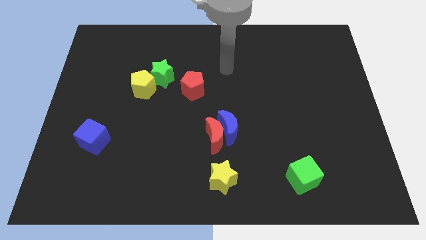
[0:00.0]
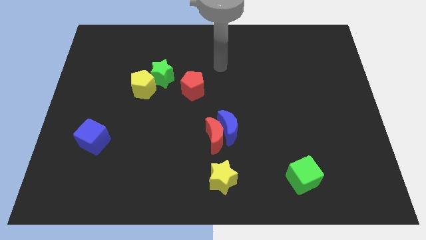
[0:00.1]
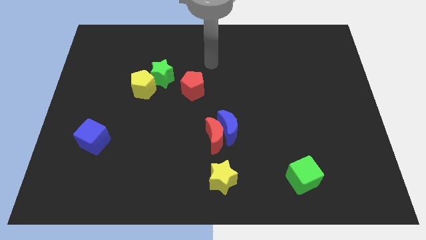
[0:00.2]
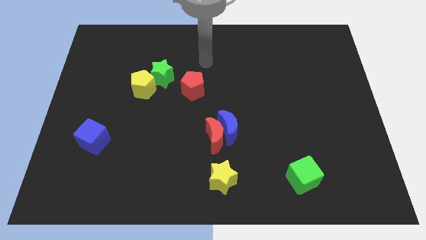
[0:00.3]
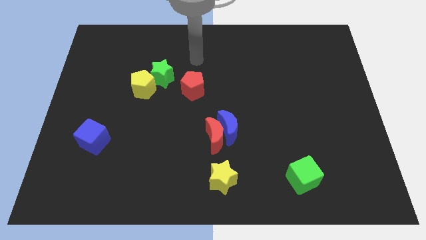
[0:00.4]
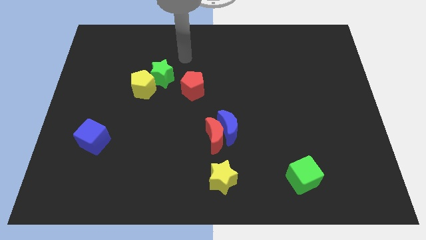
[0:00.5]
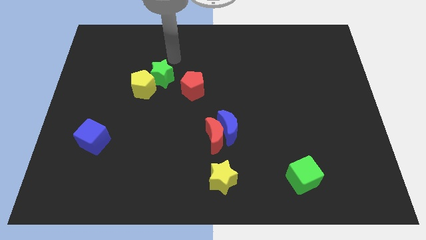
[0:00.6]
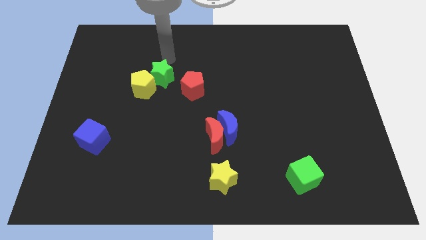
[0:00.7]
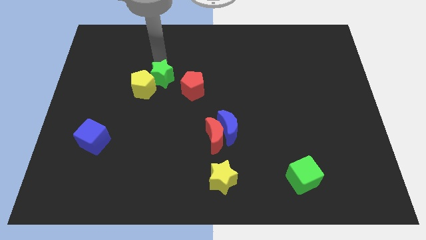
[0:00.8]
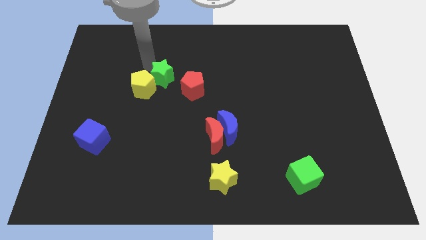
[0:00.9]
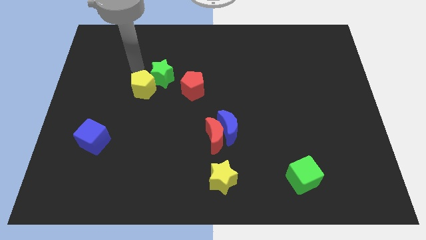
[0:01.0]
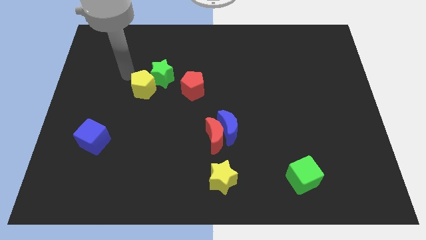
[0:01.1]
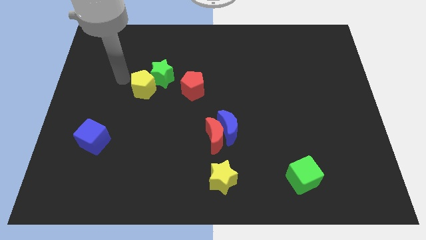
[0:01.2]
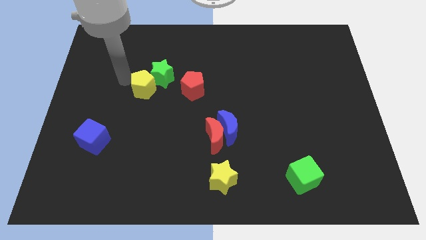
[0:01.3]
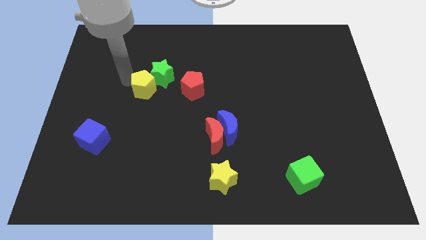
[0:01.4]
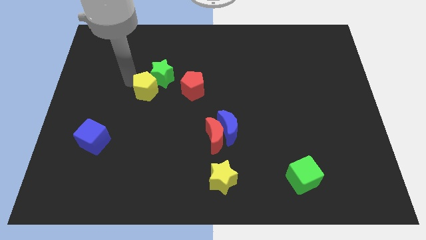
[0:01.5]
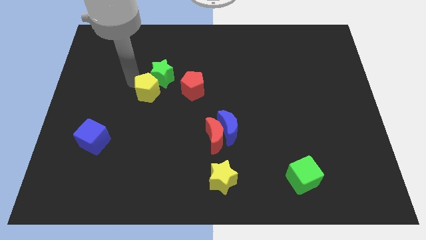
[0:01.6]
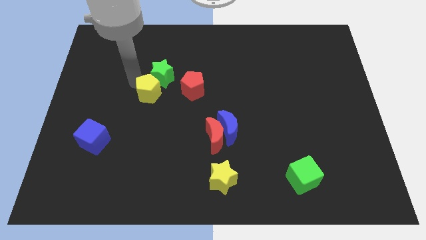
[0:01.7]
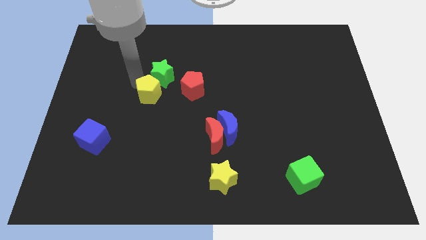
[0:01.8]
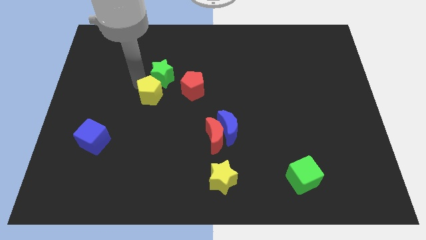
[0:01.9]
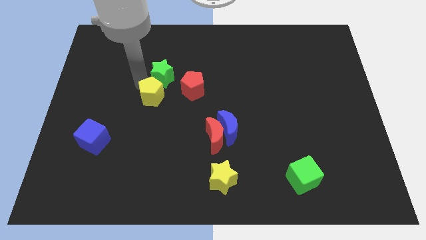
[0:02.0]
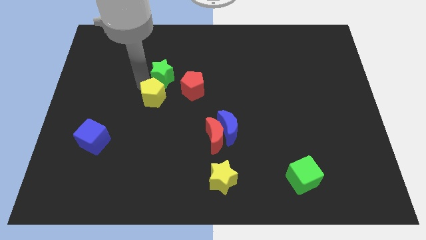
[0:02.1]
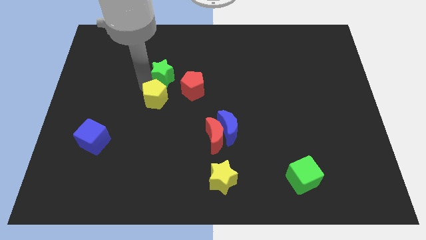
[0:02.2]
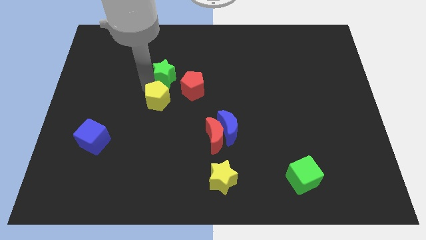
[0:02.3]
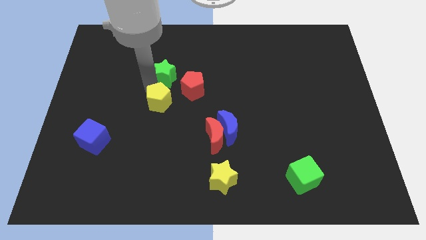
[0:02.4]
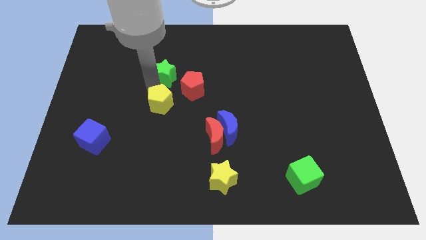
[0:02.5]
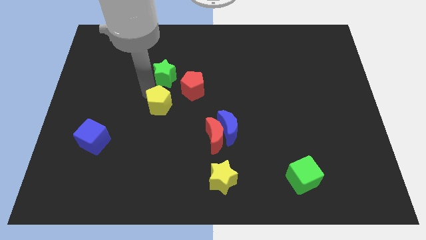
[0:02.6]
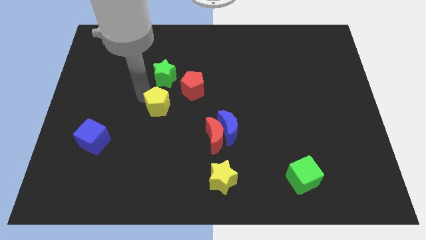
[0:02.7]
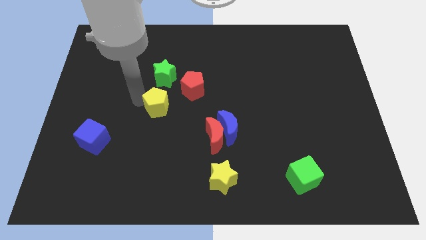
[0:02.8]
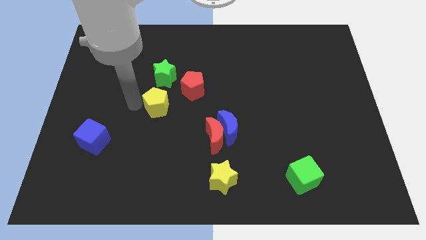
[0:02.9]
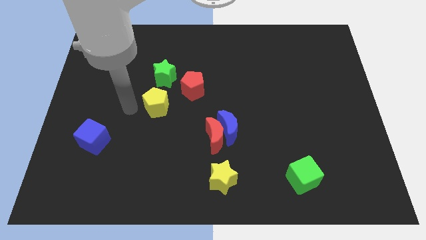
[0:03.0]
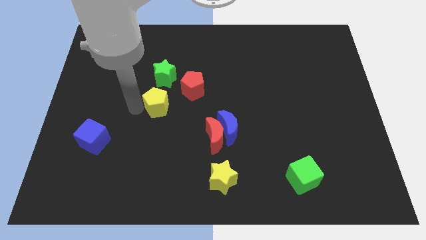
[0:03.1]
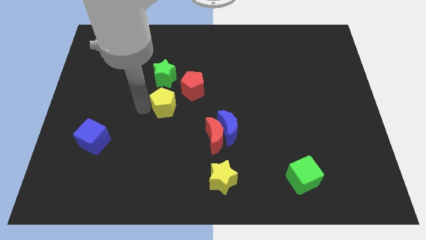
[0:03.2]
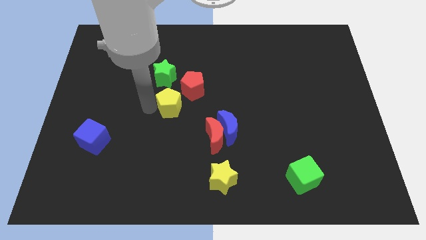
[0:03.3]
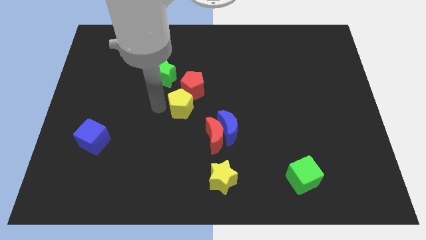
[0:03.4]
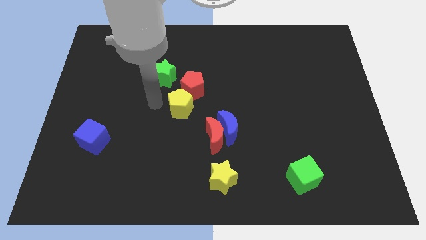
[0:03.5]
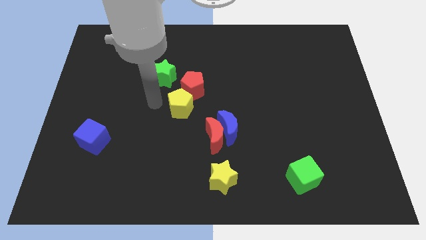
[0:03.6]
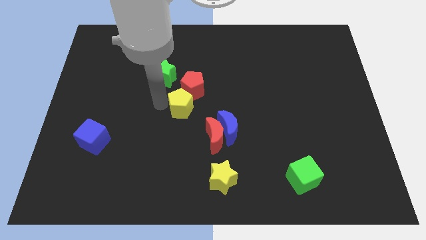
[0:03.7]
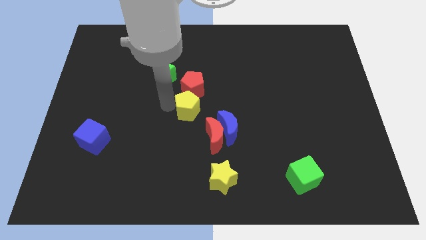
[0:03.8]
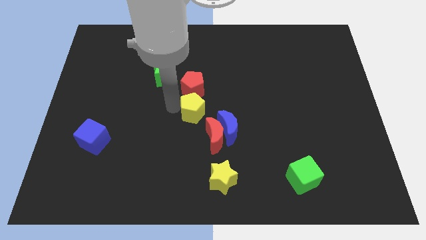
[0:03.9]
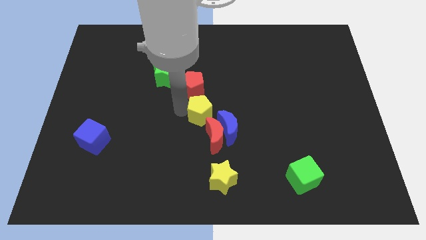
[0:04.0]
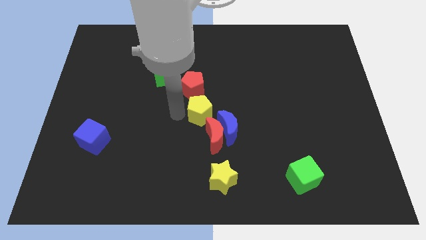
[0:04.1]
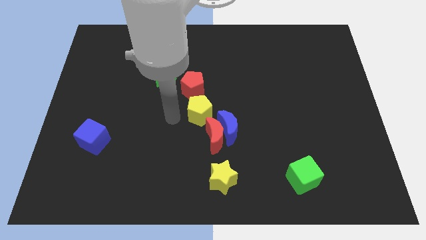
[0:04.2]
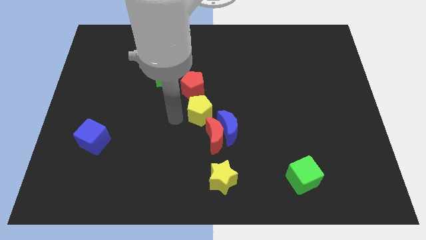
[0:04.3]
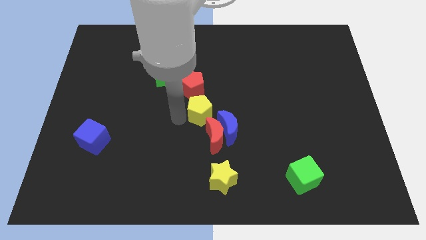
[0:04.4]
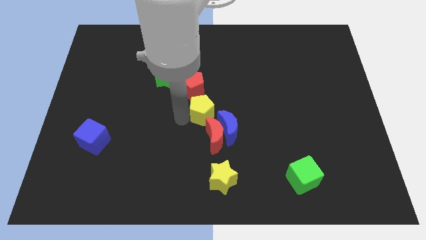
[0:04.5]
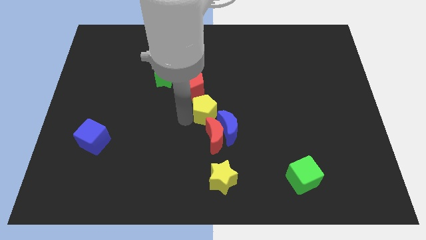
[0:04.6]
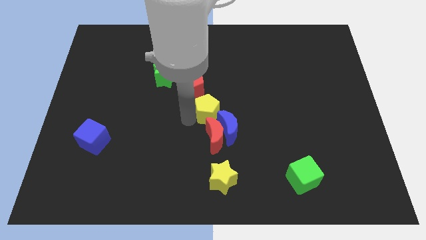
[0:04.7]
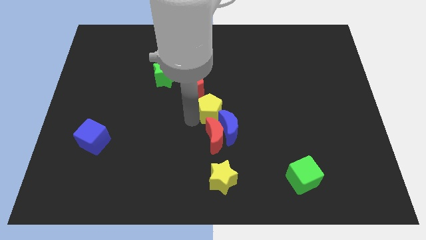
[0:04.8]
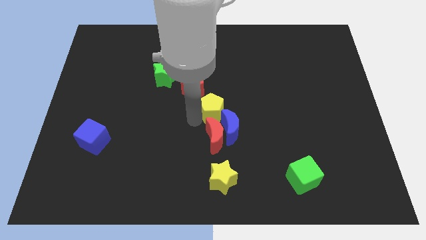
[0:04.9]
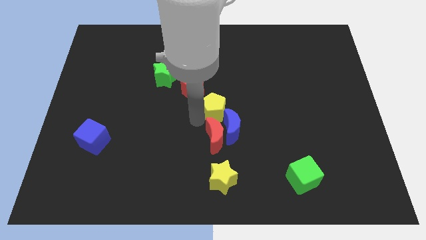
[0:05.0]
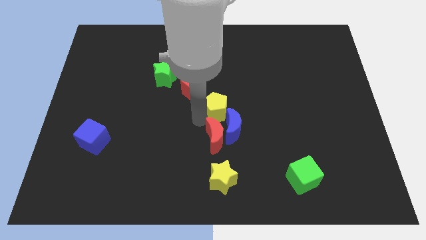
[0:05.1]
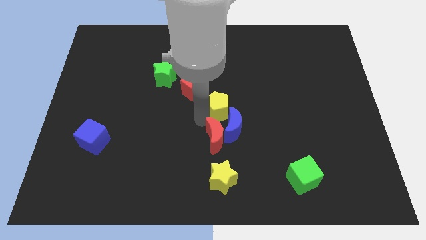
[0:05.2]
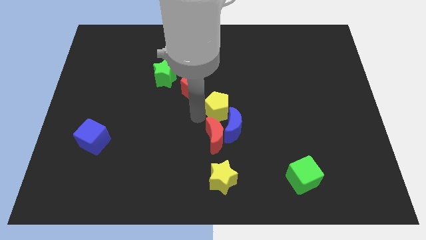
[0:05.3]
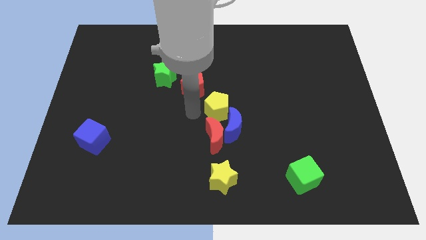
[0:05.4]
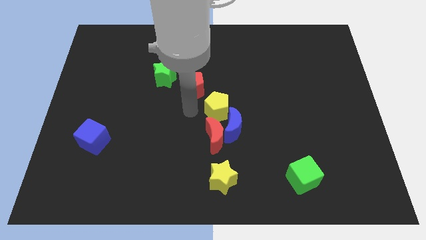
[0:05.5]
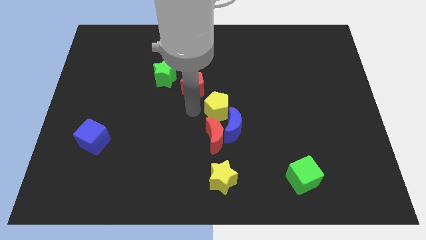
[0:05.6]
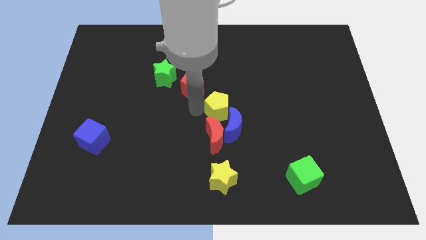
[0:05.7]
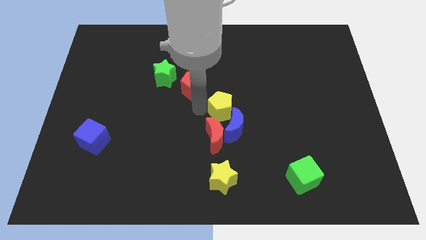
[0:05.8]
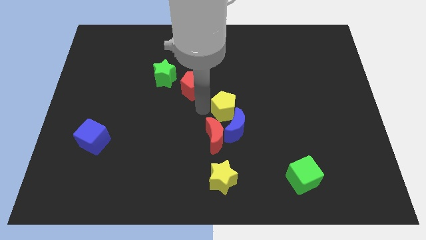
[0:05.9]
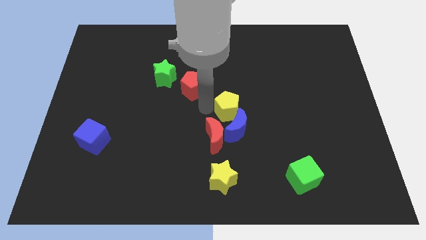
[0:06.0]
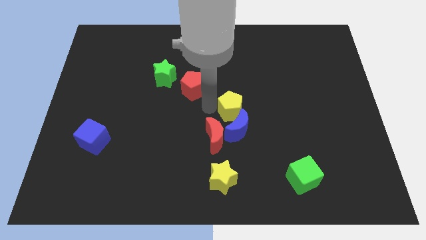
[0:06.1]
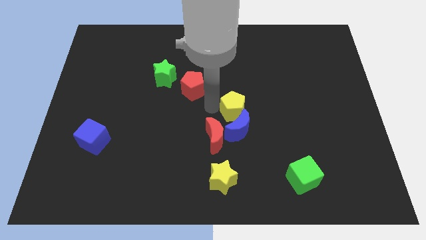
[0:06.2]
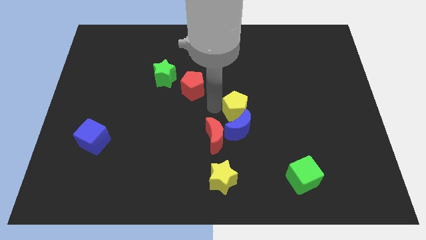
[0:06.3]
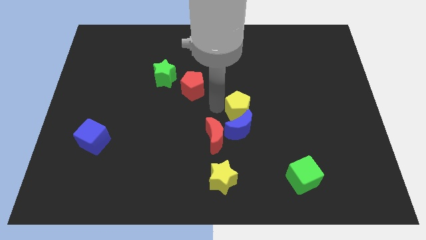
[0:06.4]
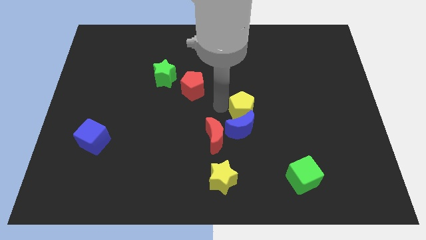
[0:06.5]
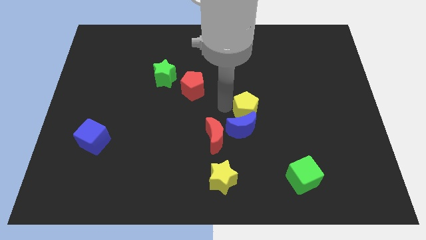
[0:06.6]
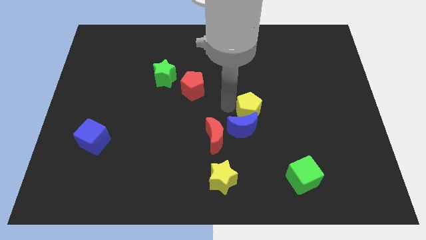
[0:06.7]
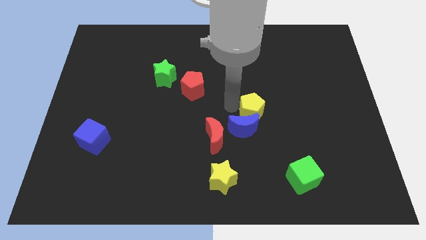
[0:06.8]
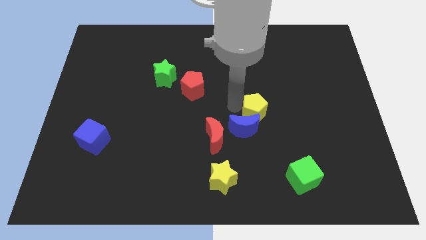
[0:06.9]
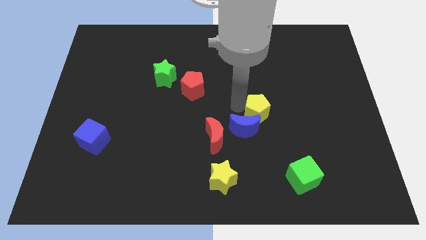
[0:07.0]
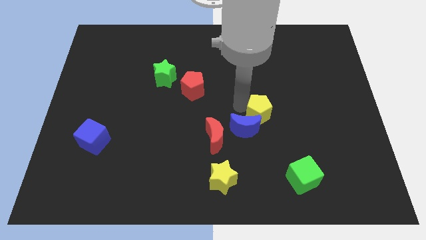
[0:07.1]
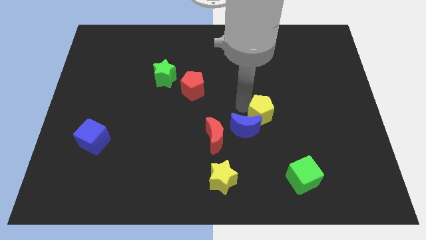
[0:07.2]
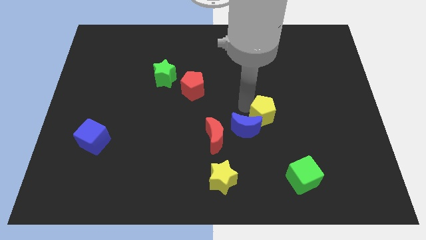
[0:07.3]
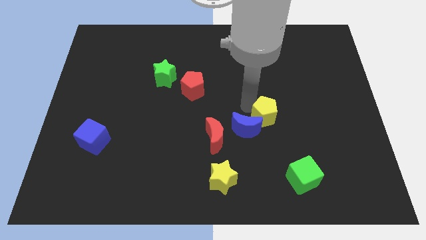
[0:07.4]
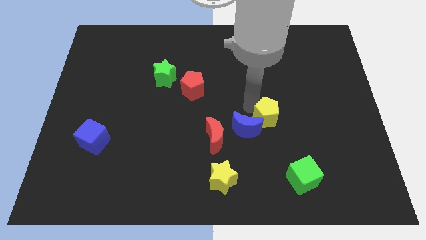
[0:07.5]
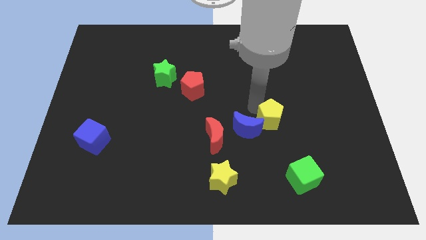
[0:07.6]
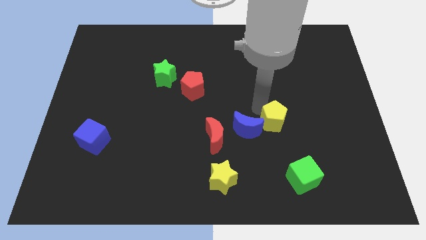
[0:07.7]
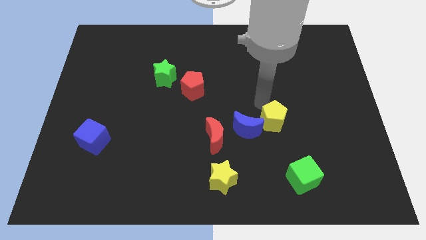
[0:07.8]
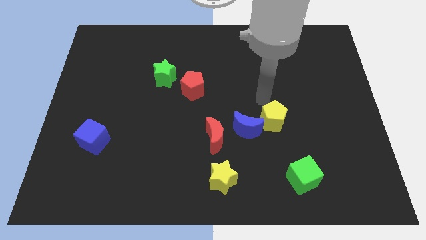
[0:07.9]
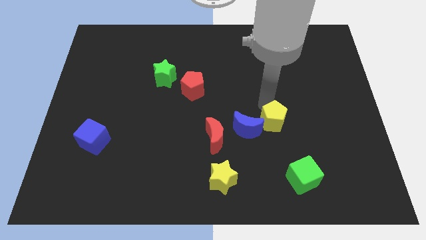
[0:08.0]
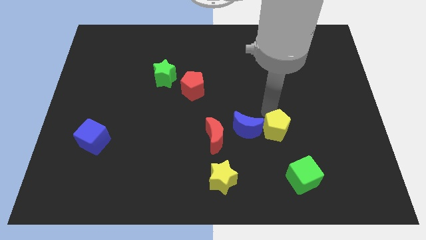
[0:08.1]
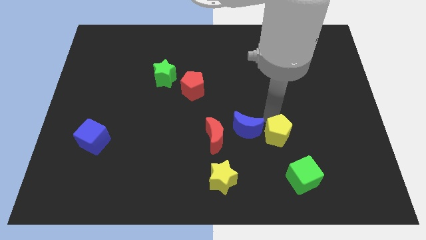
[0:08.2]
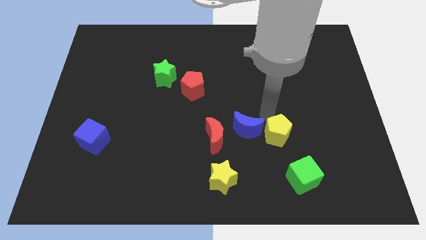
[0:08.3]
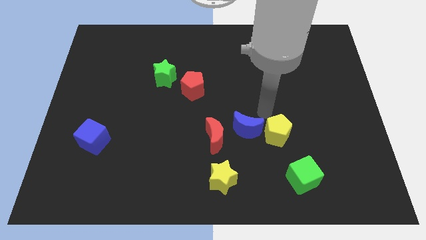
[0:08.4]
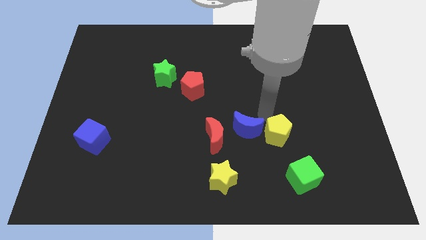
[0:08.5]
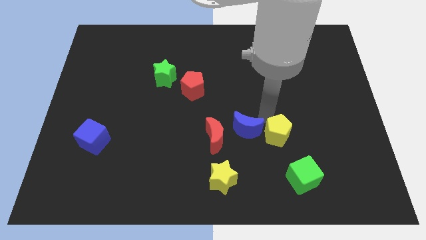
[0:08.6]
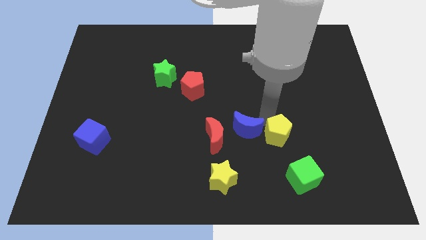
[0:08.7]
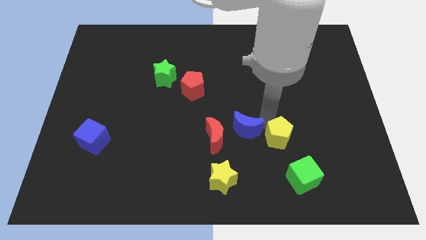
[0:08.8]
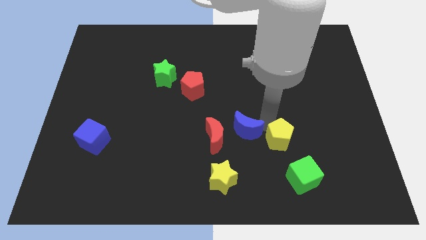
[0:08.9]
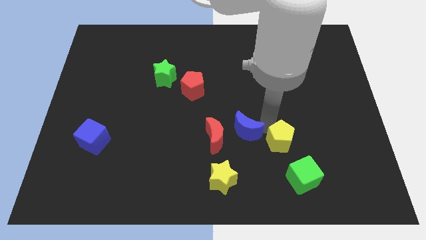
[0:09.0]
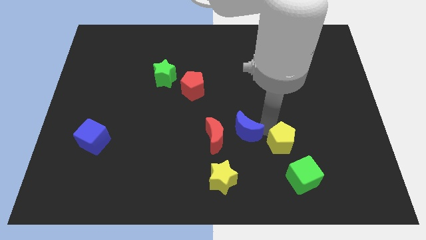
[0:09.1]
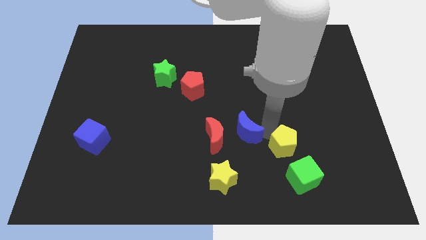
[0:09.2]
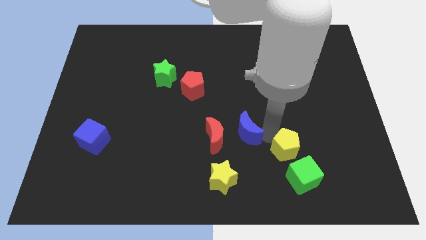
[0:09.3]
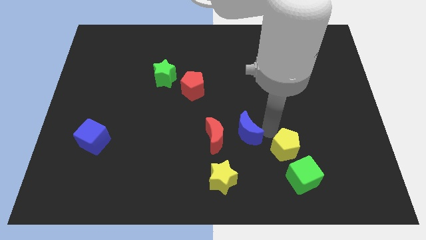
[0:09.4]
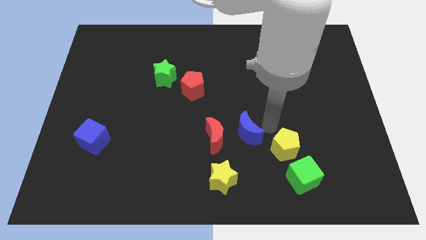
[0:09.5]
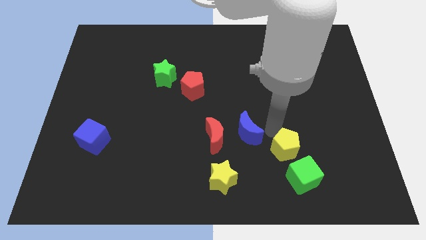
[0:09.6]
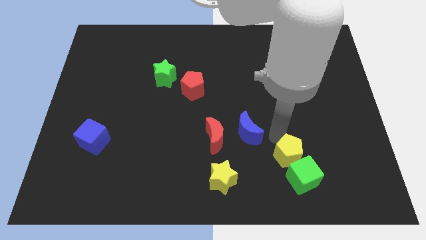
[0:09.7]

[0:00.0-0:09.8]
push the yellow pentagon towards the green cube
